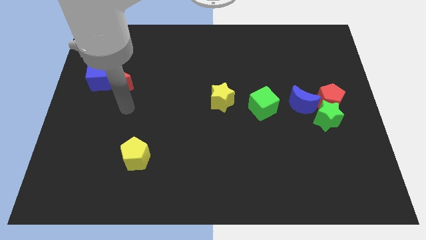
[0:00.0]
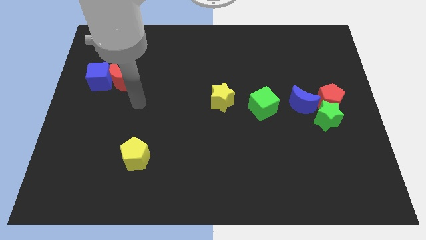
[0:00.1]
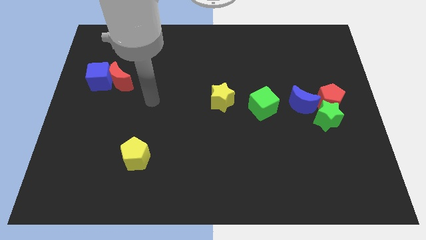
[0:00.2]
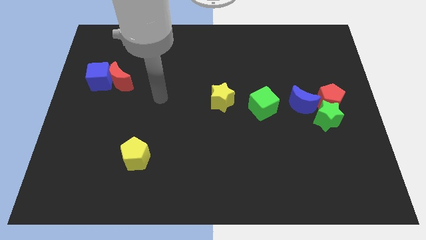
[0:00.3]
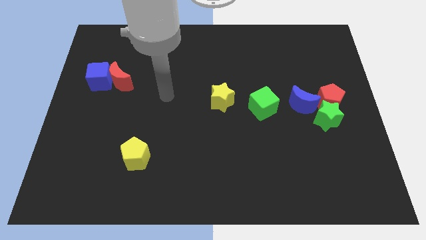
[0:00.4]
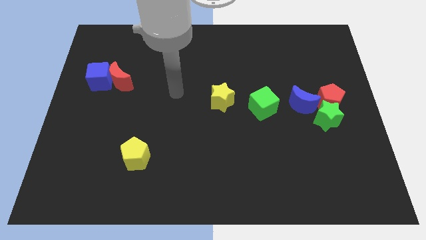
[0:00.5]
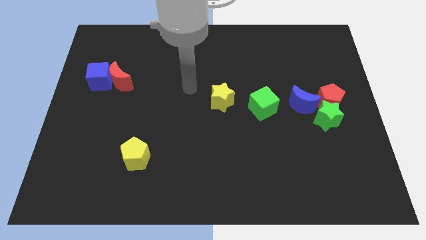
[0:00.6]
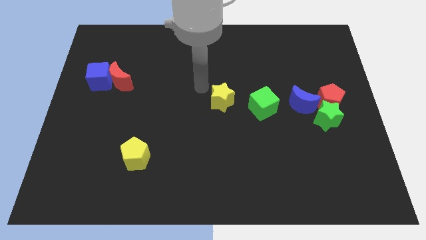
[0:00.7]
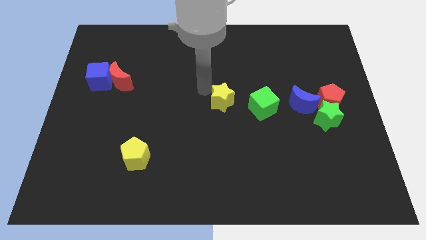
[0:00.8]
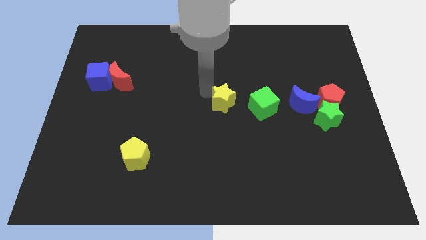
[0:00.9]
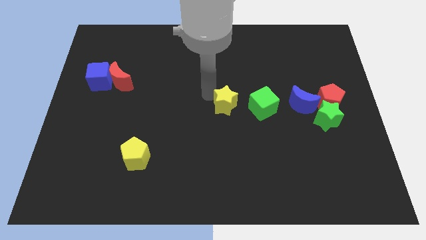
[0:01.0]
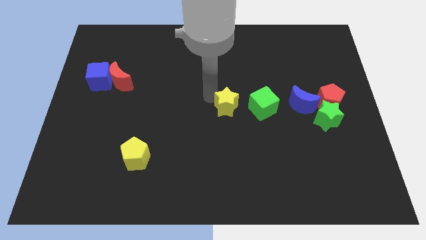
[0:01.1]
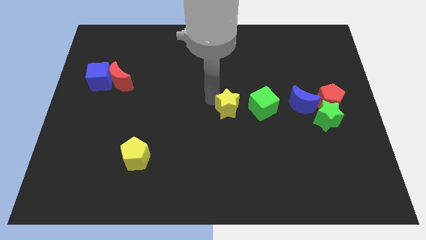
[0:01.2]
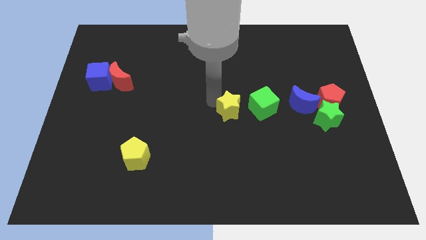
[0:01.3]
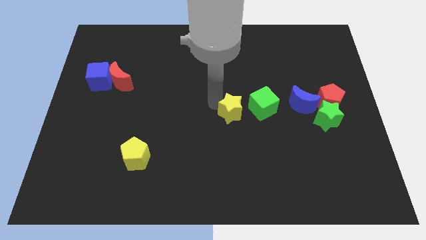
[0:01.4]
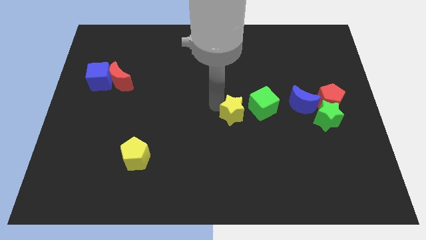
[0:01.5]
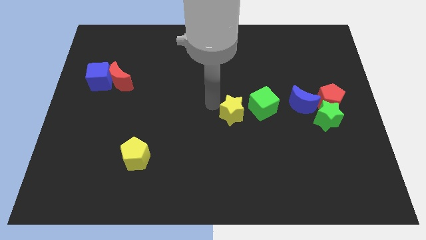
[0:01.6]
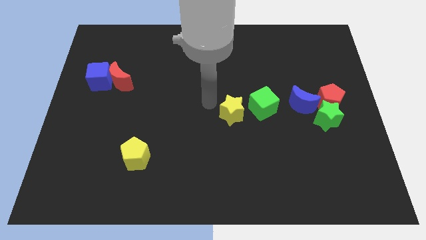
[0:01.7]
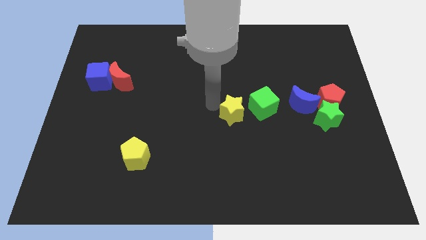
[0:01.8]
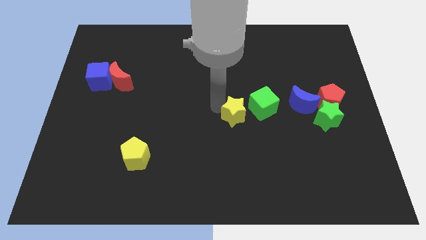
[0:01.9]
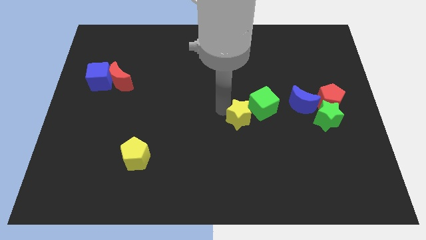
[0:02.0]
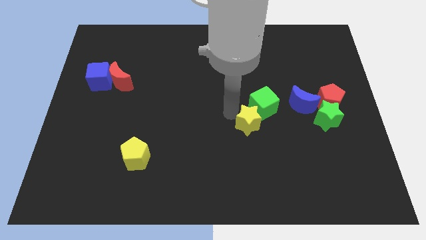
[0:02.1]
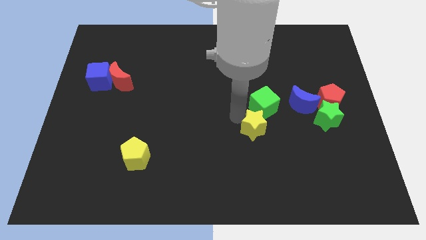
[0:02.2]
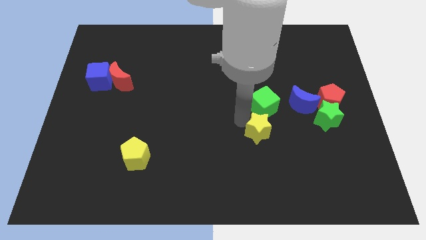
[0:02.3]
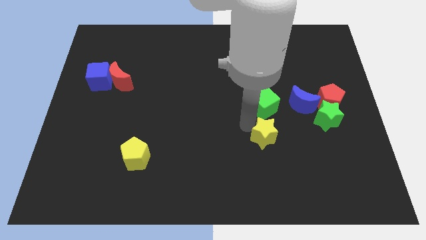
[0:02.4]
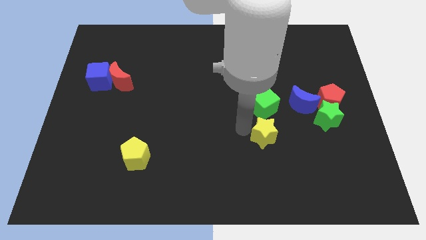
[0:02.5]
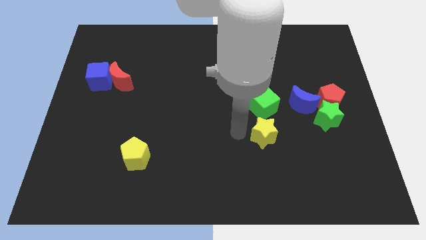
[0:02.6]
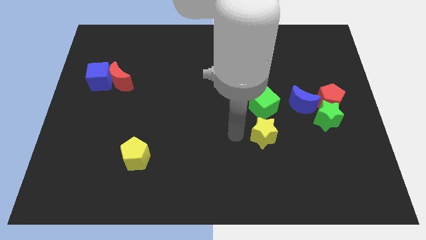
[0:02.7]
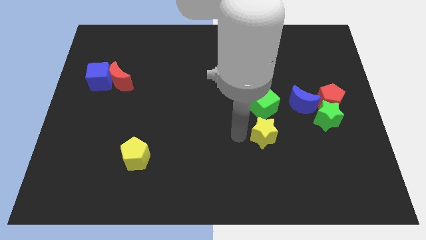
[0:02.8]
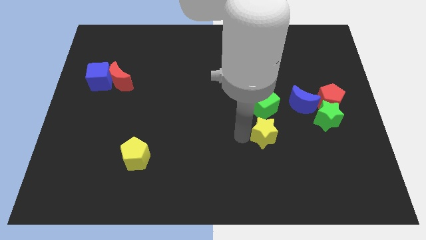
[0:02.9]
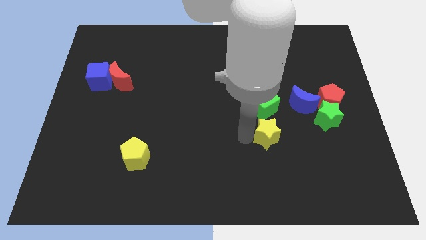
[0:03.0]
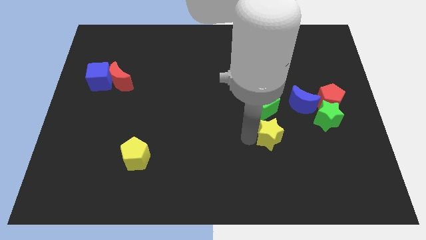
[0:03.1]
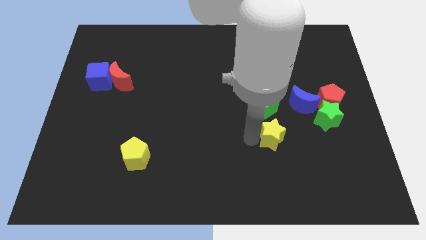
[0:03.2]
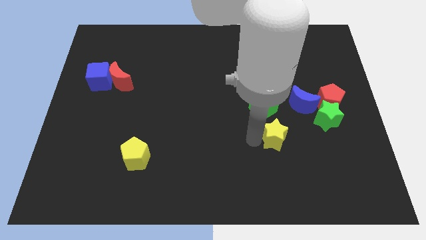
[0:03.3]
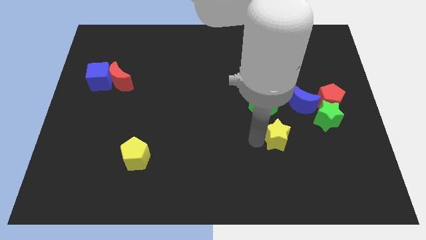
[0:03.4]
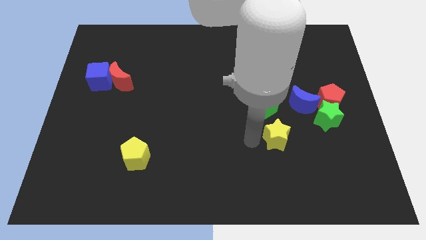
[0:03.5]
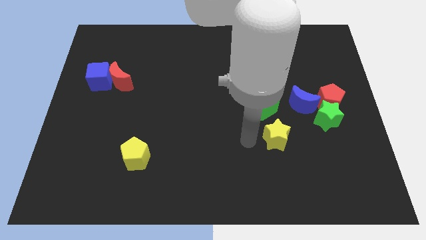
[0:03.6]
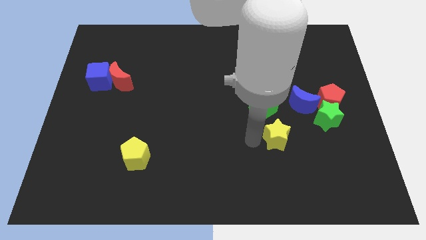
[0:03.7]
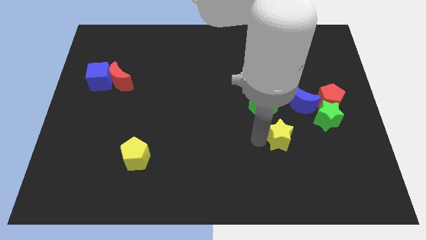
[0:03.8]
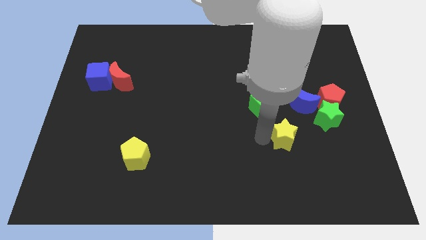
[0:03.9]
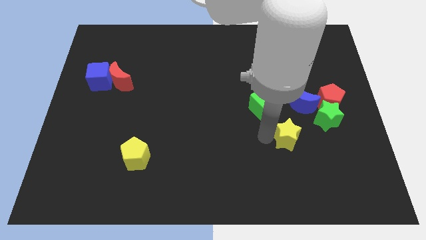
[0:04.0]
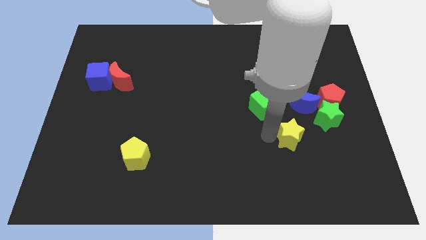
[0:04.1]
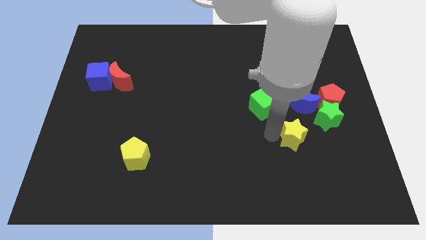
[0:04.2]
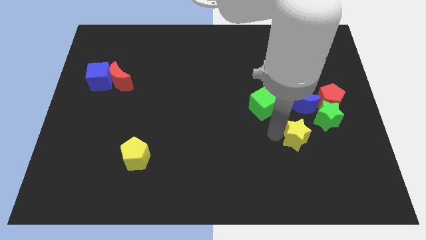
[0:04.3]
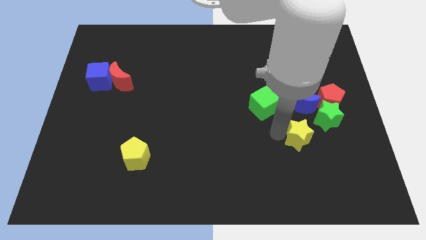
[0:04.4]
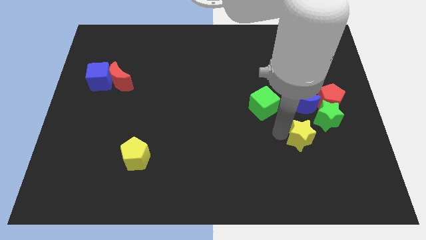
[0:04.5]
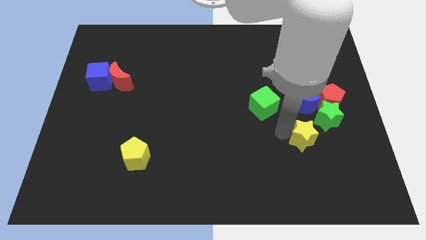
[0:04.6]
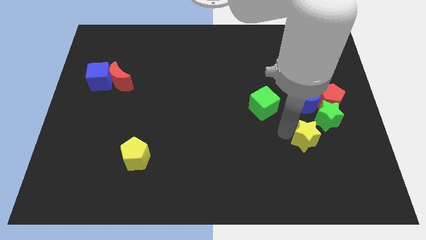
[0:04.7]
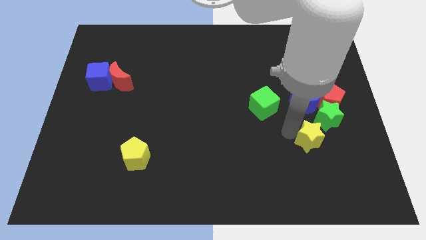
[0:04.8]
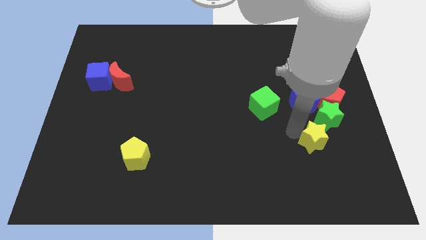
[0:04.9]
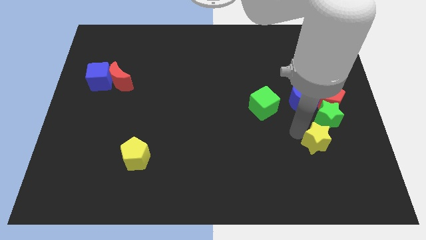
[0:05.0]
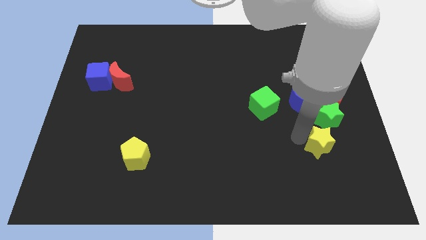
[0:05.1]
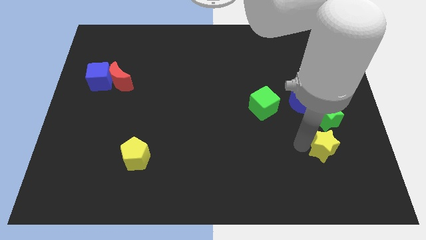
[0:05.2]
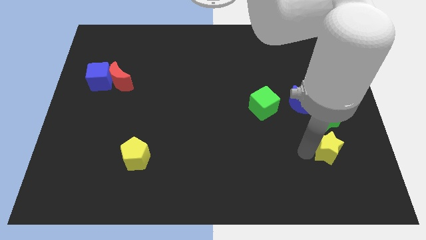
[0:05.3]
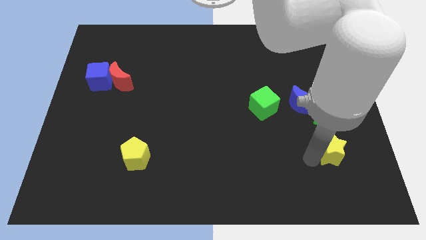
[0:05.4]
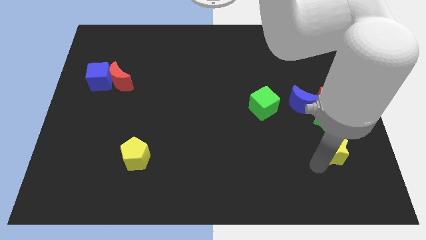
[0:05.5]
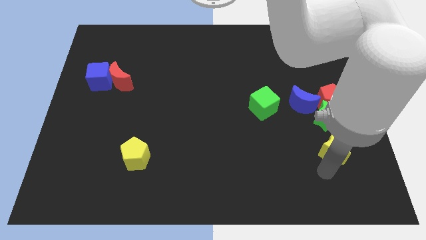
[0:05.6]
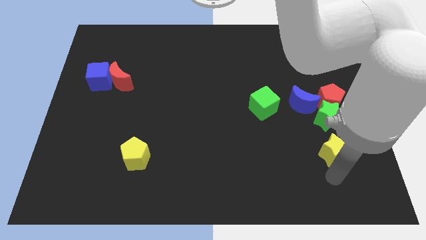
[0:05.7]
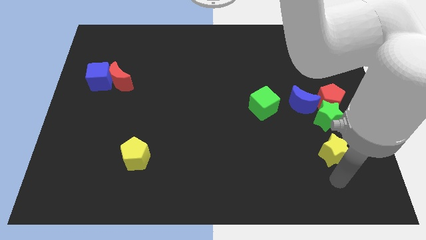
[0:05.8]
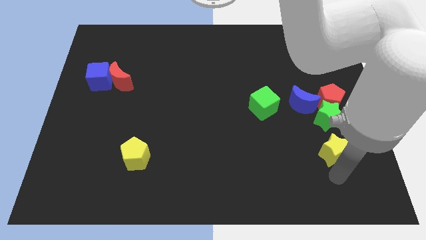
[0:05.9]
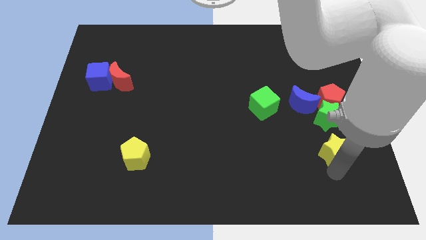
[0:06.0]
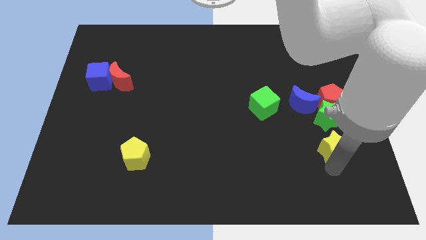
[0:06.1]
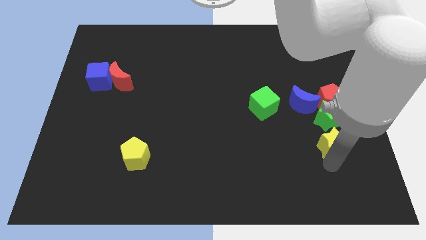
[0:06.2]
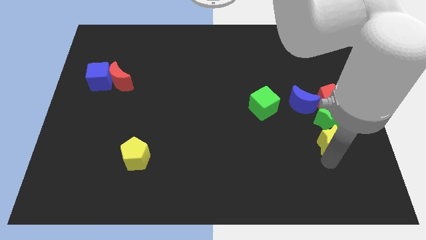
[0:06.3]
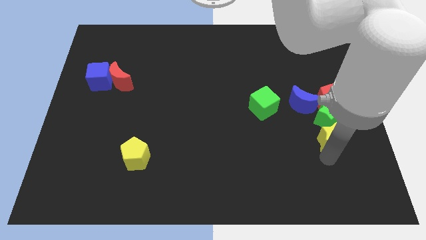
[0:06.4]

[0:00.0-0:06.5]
slide the yellow star next to the green star
